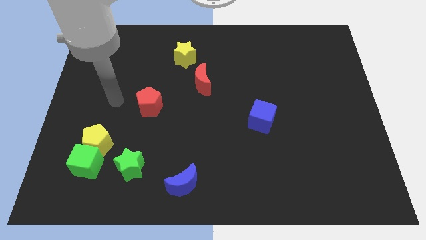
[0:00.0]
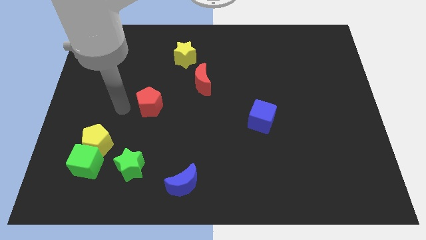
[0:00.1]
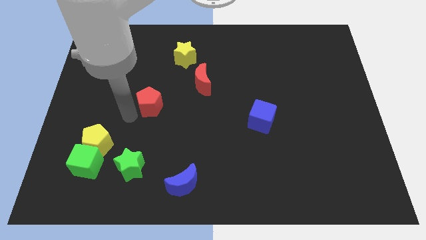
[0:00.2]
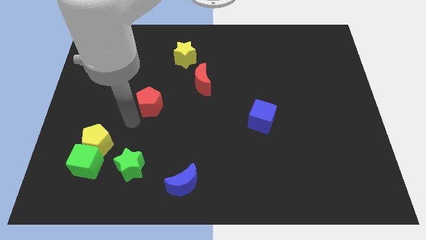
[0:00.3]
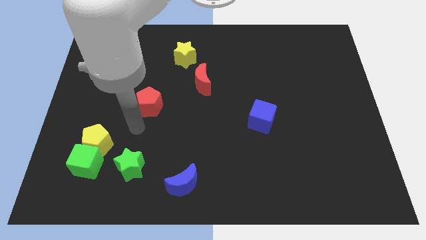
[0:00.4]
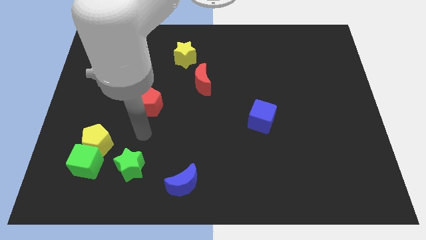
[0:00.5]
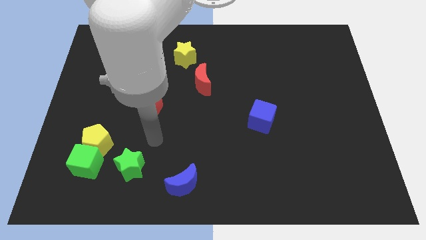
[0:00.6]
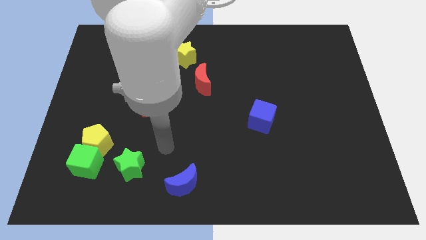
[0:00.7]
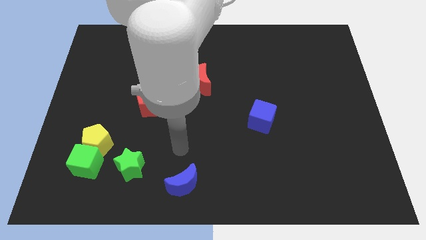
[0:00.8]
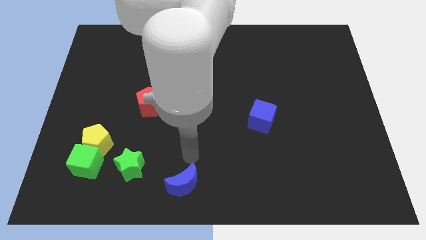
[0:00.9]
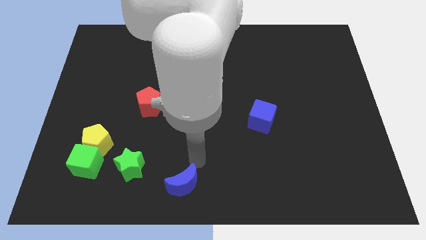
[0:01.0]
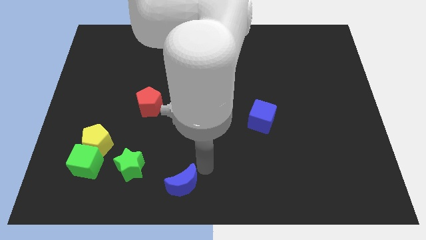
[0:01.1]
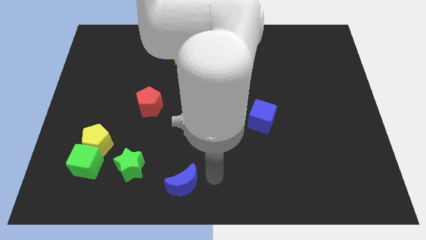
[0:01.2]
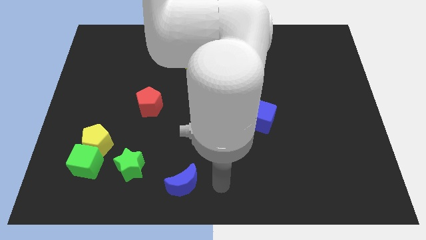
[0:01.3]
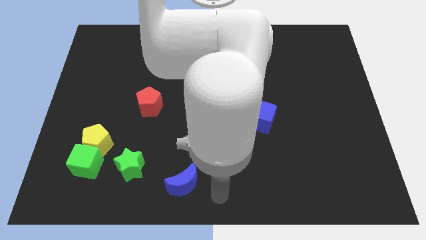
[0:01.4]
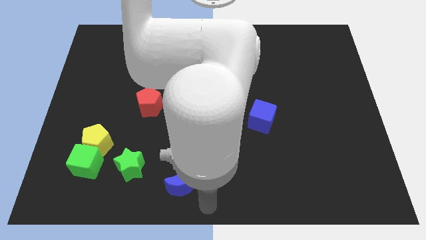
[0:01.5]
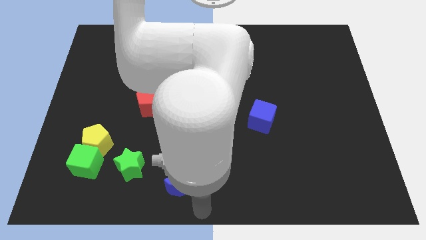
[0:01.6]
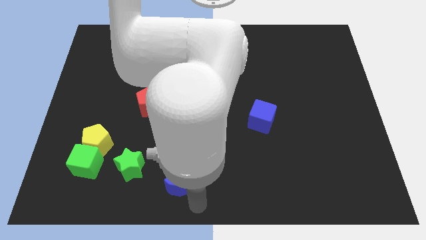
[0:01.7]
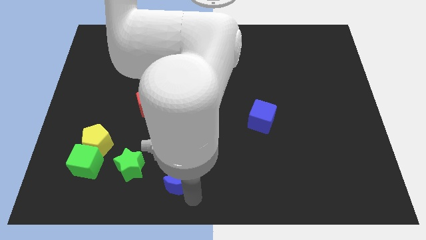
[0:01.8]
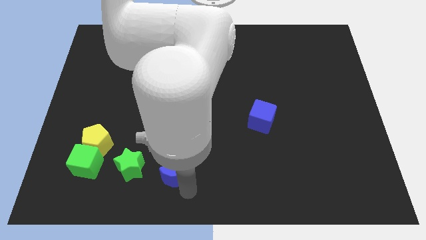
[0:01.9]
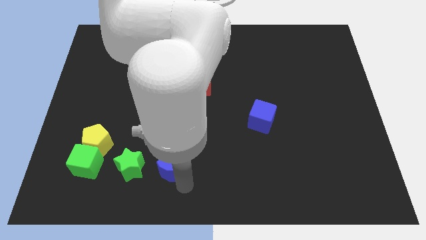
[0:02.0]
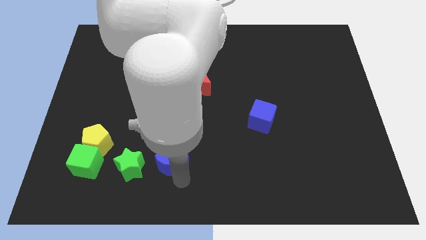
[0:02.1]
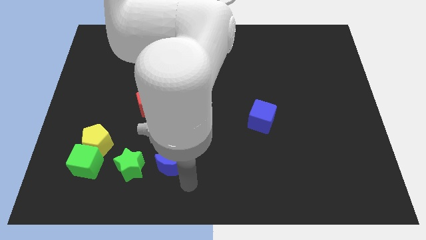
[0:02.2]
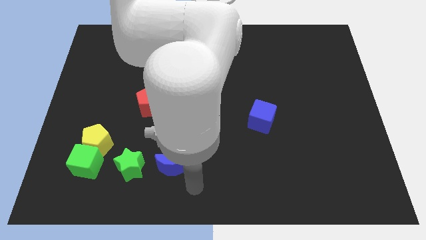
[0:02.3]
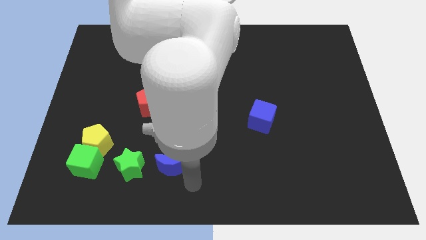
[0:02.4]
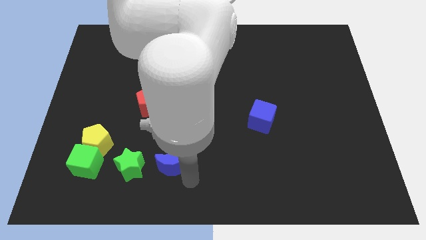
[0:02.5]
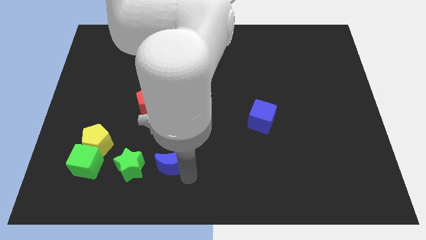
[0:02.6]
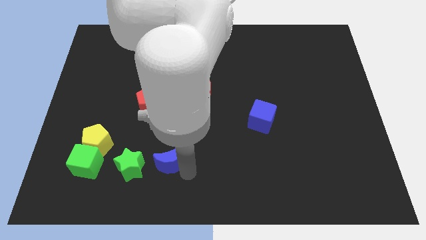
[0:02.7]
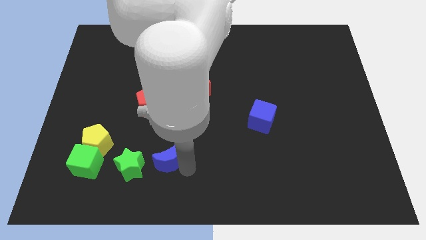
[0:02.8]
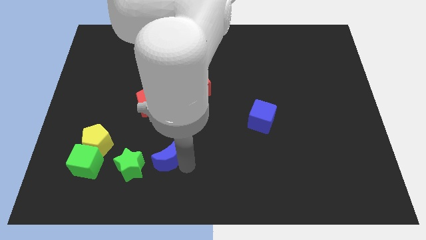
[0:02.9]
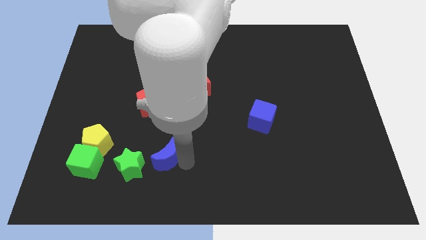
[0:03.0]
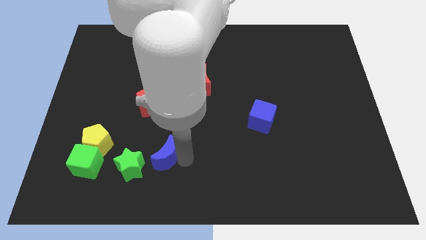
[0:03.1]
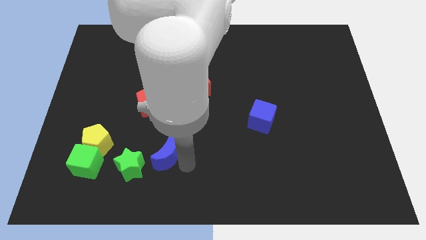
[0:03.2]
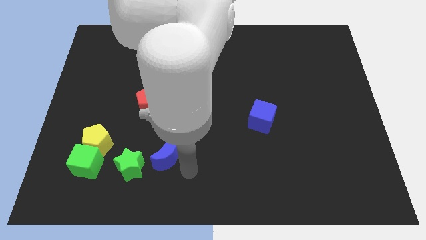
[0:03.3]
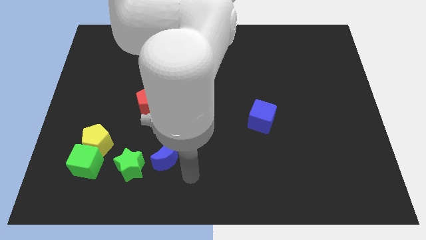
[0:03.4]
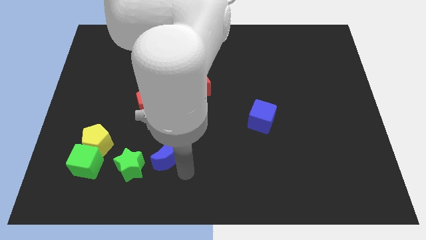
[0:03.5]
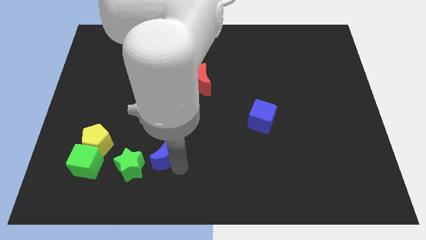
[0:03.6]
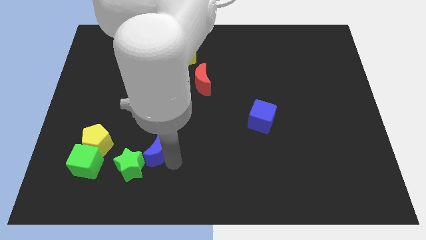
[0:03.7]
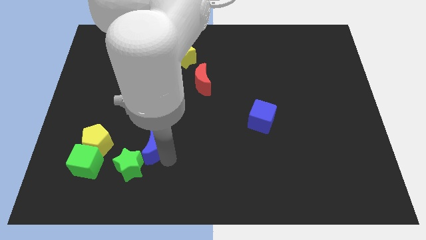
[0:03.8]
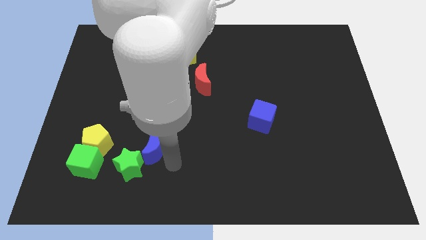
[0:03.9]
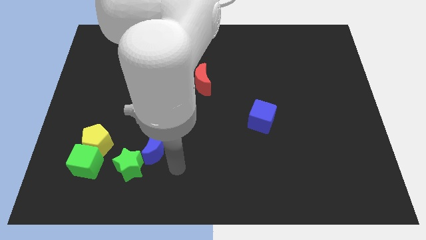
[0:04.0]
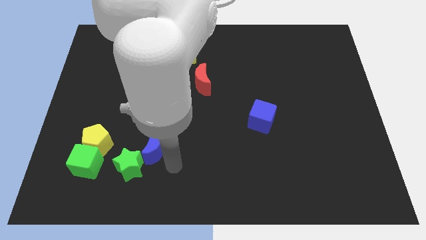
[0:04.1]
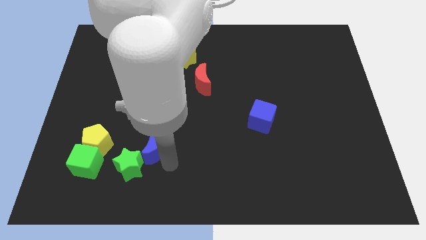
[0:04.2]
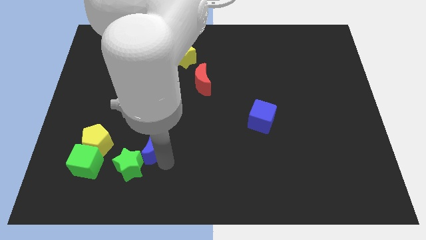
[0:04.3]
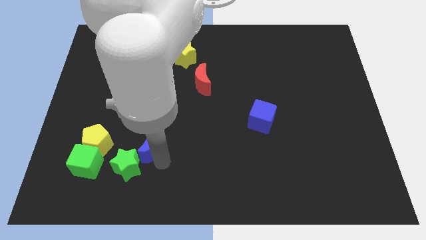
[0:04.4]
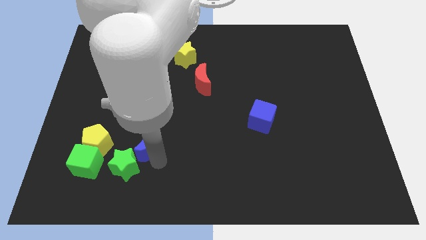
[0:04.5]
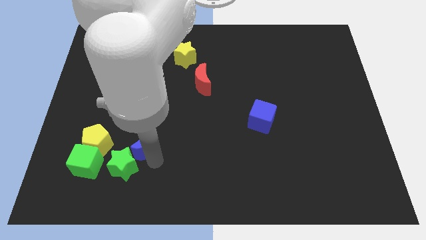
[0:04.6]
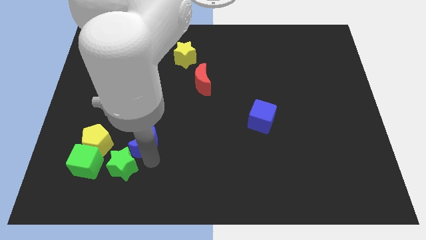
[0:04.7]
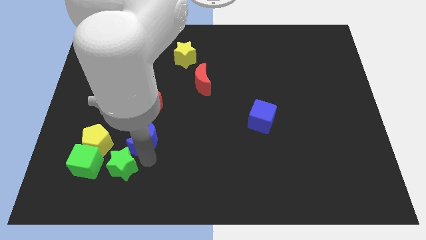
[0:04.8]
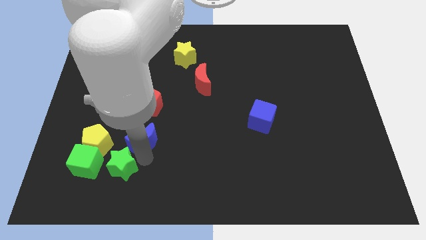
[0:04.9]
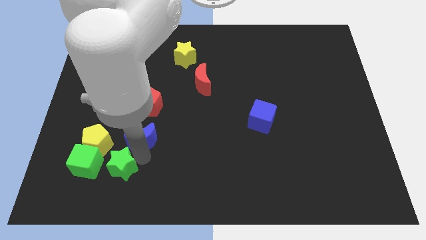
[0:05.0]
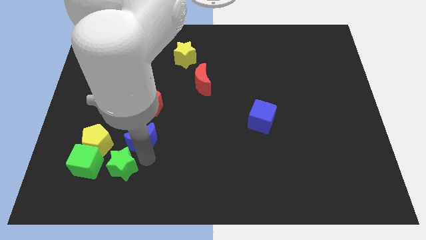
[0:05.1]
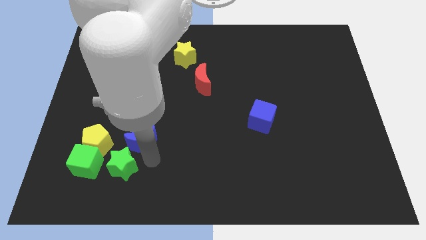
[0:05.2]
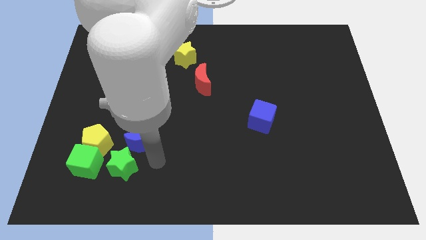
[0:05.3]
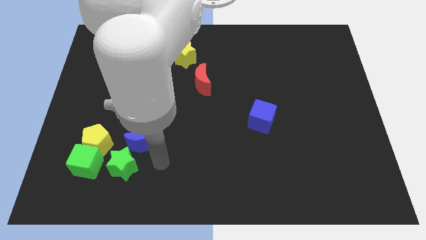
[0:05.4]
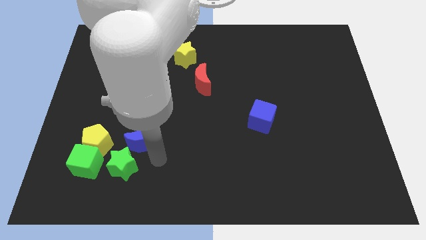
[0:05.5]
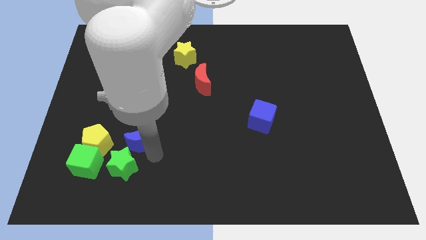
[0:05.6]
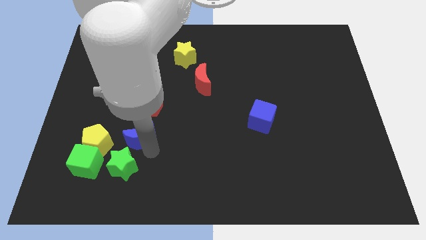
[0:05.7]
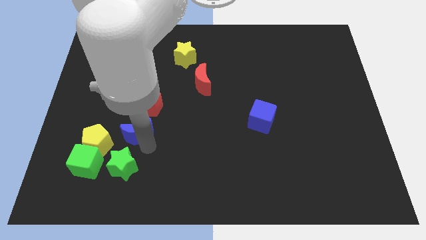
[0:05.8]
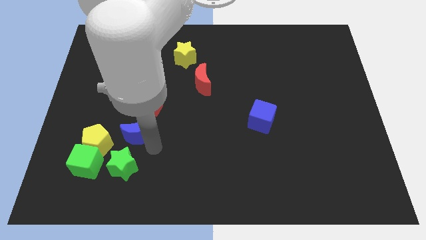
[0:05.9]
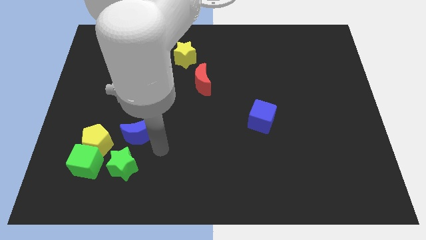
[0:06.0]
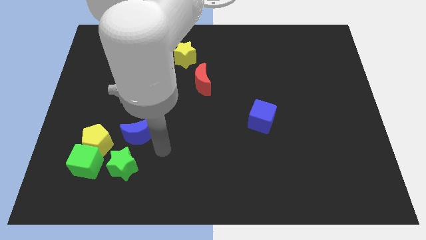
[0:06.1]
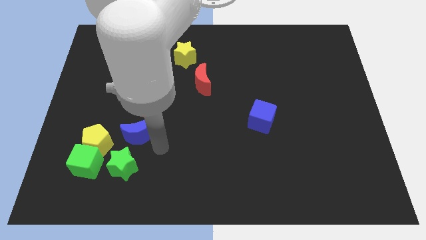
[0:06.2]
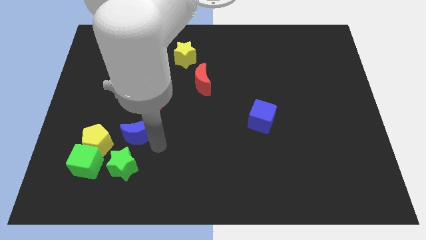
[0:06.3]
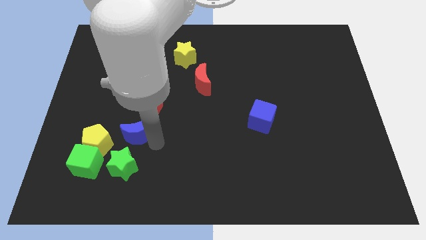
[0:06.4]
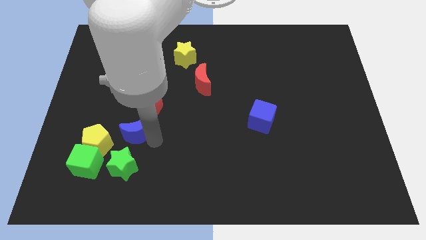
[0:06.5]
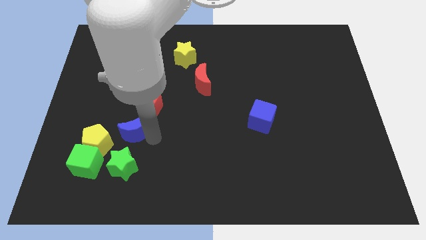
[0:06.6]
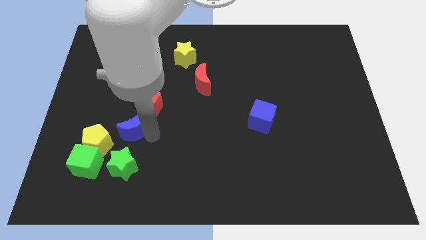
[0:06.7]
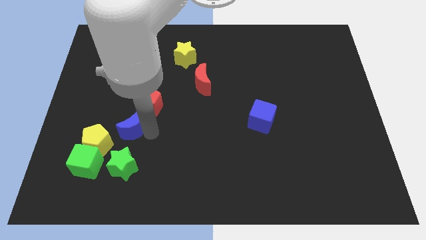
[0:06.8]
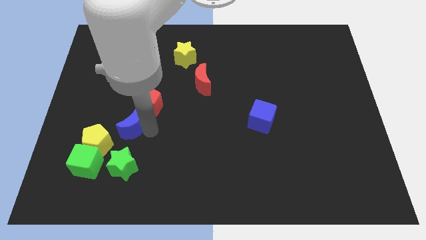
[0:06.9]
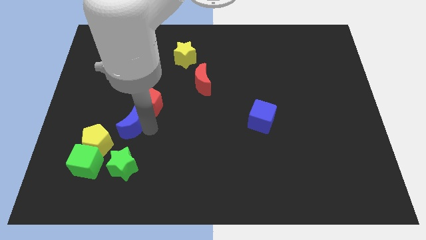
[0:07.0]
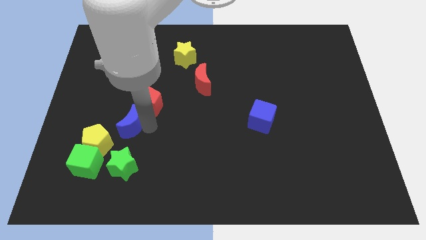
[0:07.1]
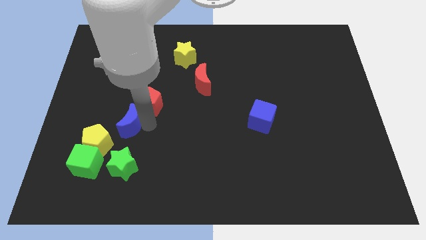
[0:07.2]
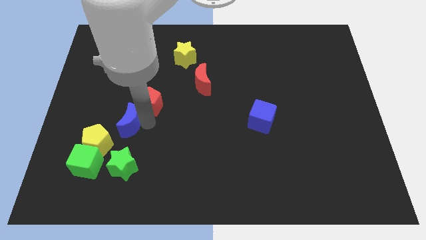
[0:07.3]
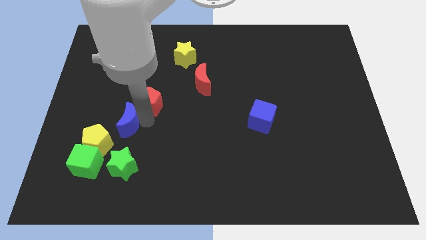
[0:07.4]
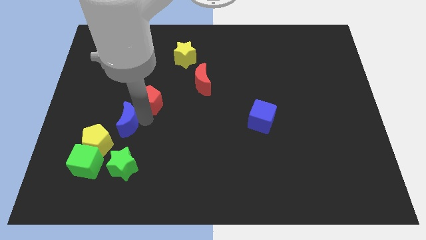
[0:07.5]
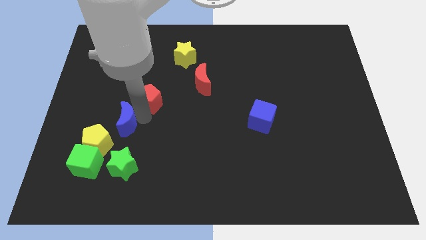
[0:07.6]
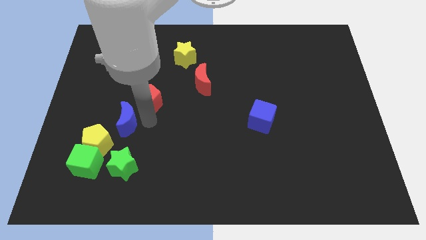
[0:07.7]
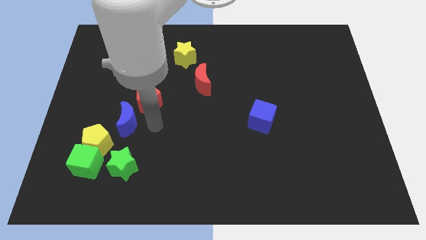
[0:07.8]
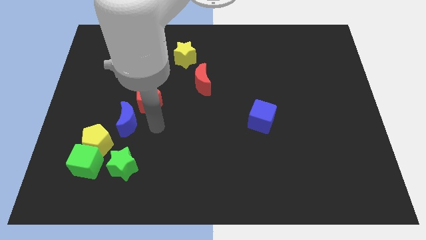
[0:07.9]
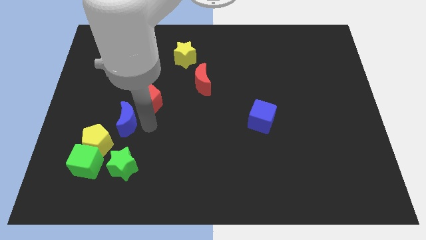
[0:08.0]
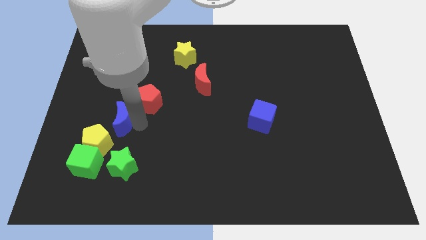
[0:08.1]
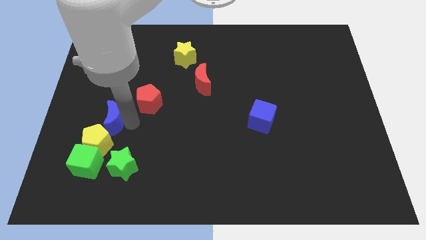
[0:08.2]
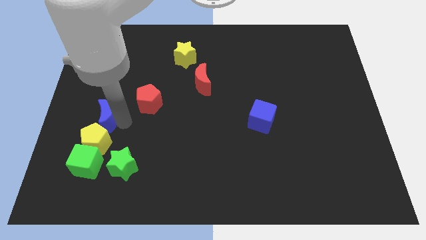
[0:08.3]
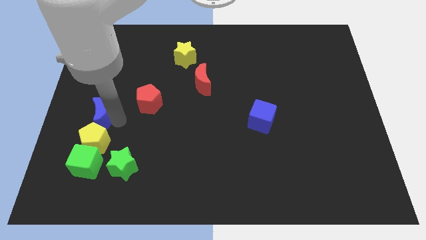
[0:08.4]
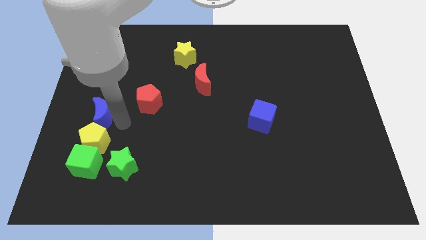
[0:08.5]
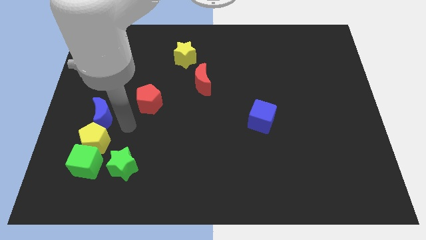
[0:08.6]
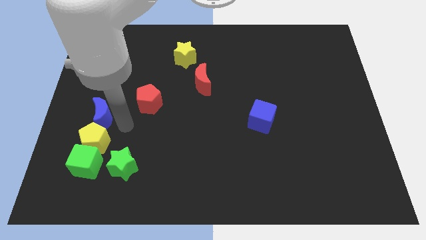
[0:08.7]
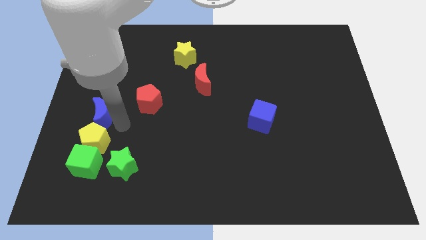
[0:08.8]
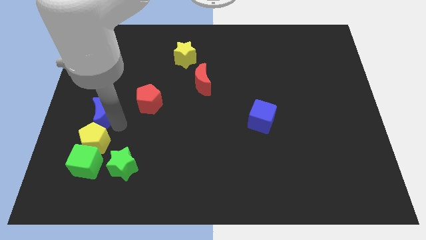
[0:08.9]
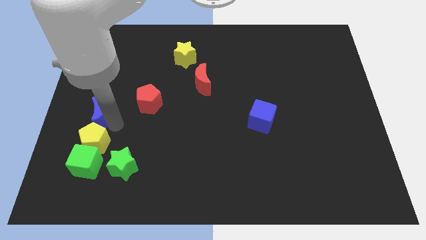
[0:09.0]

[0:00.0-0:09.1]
push the blue moon to the left side
